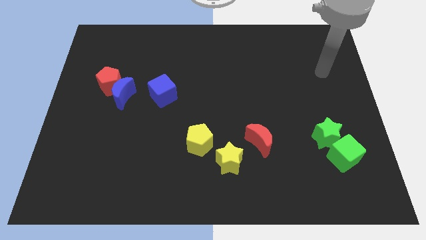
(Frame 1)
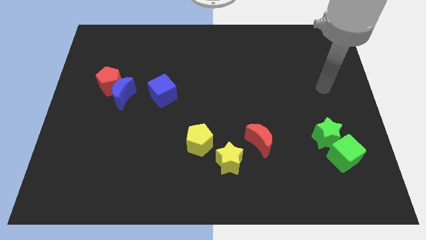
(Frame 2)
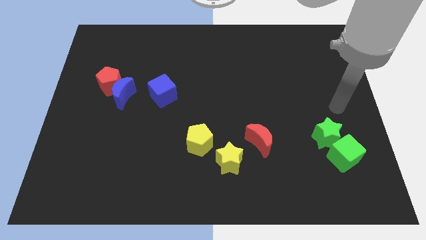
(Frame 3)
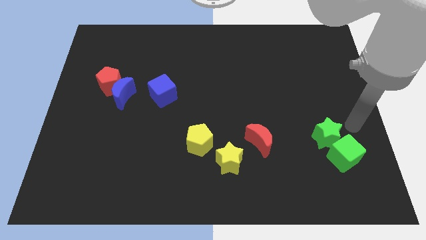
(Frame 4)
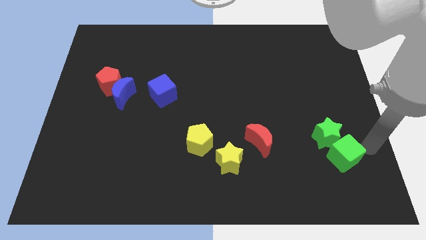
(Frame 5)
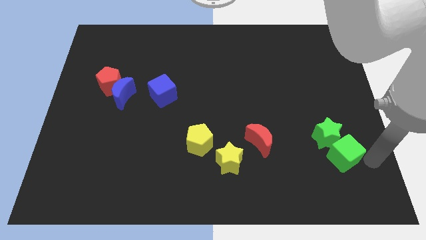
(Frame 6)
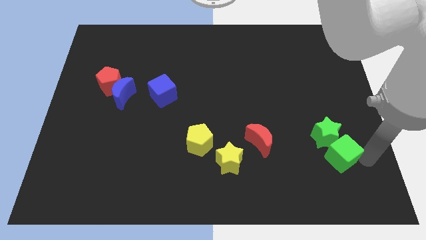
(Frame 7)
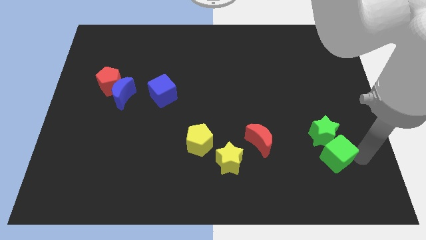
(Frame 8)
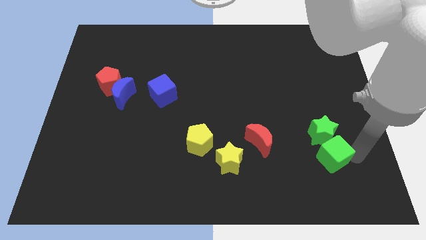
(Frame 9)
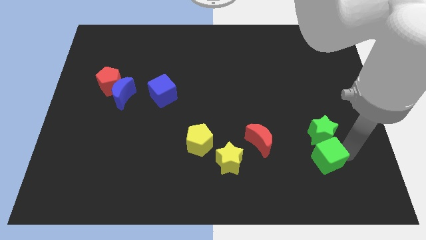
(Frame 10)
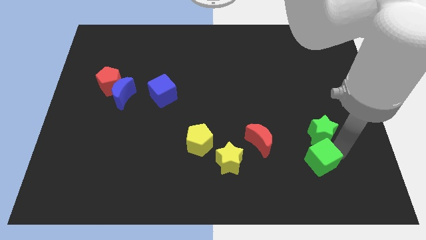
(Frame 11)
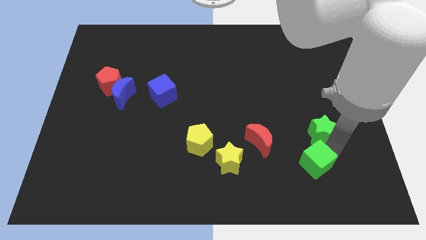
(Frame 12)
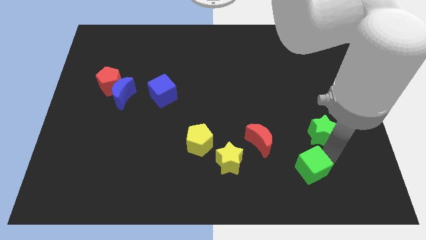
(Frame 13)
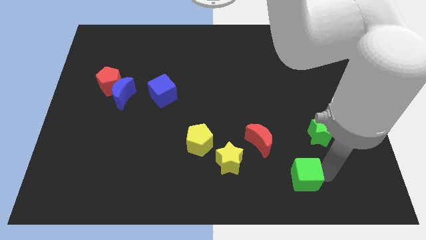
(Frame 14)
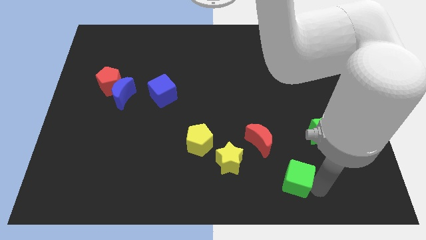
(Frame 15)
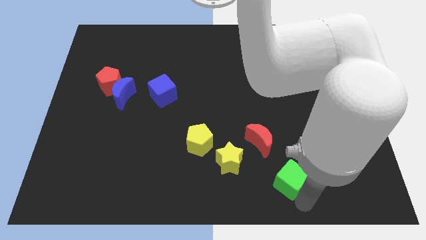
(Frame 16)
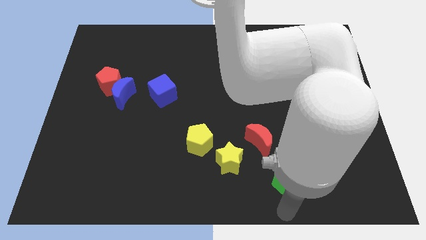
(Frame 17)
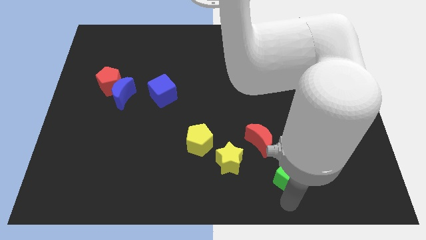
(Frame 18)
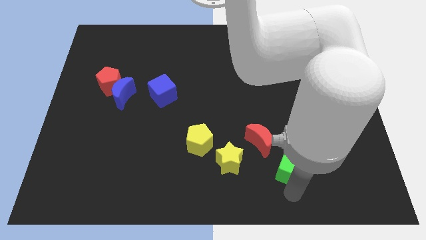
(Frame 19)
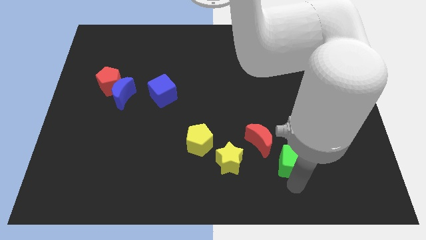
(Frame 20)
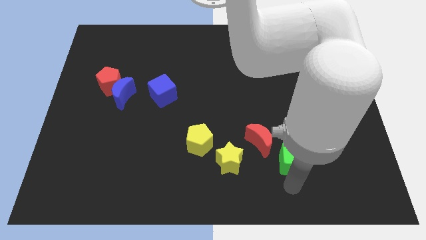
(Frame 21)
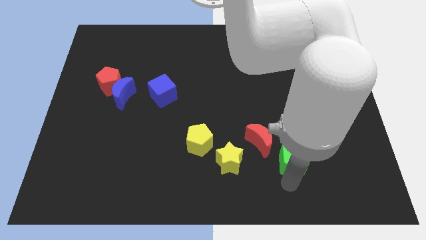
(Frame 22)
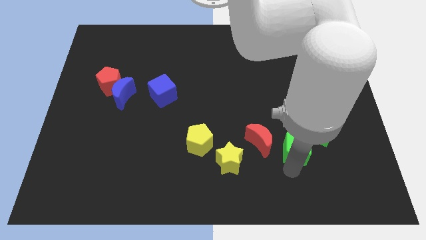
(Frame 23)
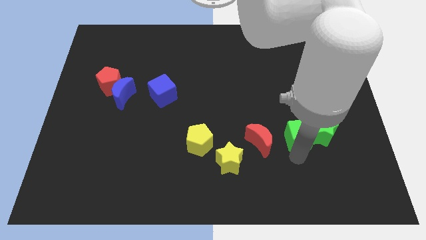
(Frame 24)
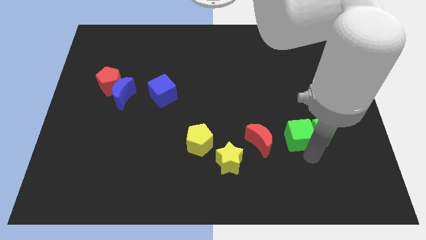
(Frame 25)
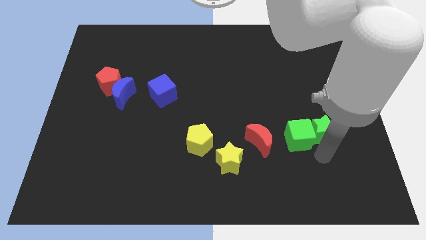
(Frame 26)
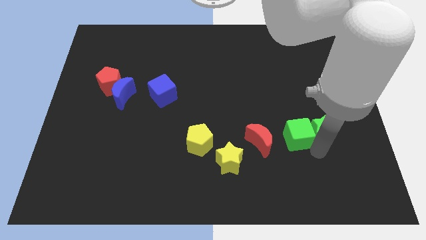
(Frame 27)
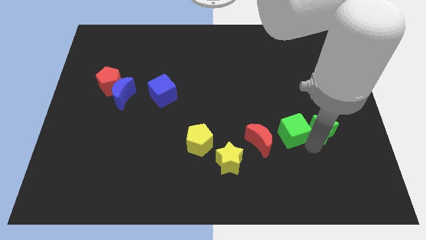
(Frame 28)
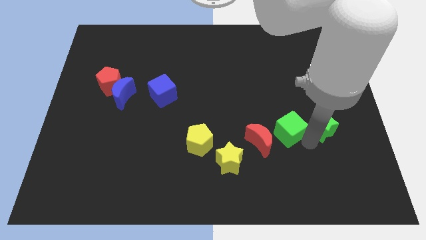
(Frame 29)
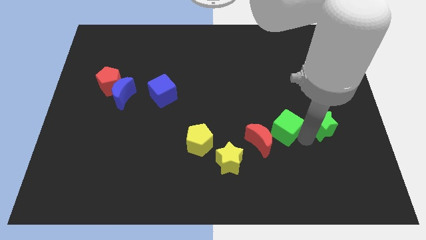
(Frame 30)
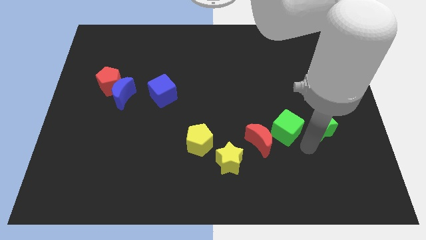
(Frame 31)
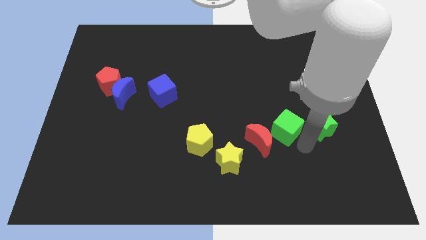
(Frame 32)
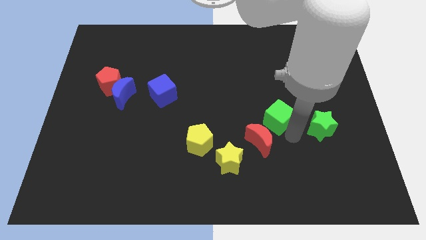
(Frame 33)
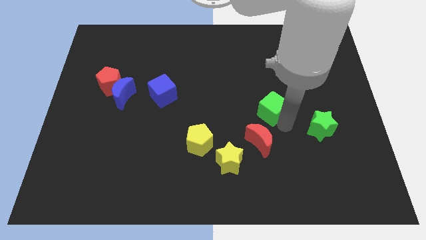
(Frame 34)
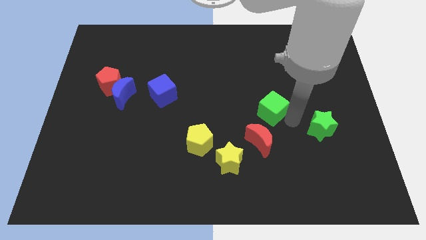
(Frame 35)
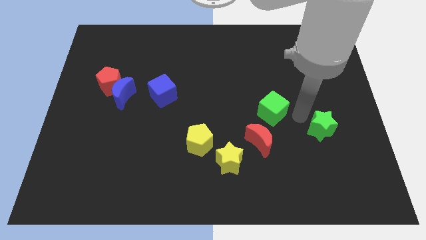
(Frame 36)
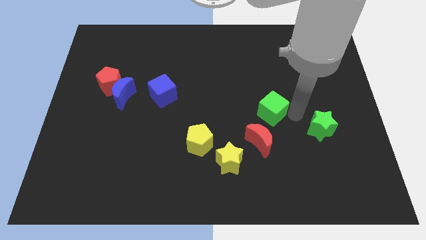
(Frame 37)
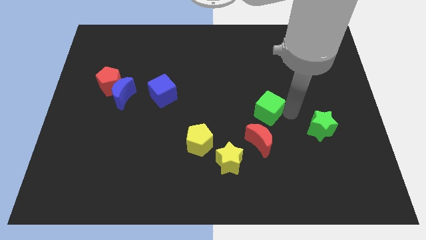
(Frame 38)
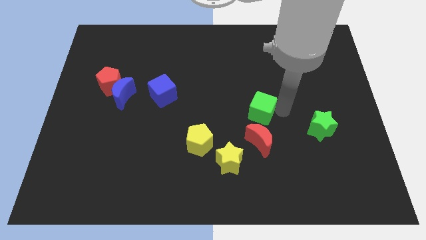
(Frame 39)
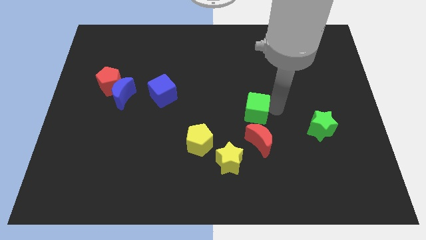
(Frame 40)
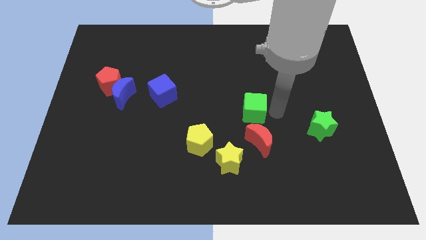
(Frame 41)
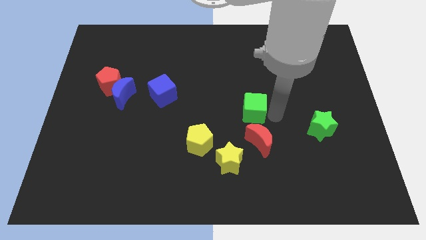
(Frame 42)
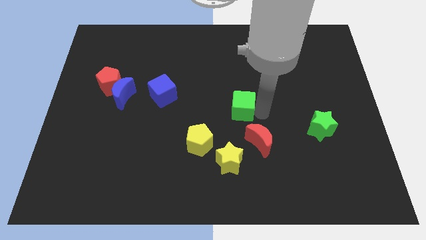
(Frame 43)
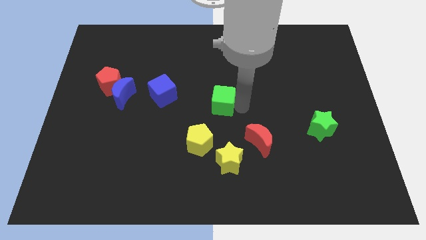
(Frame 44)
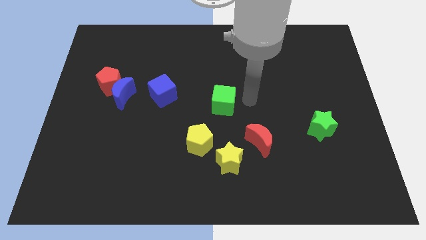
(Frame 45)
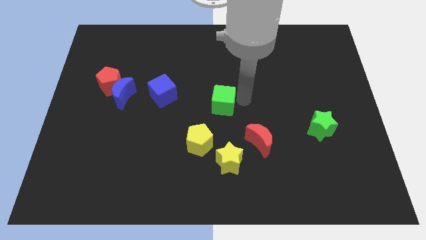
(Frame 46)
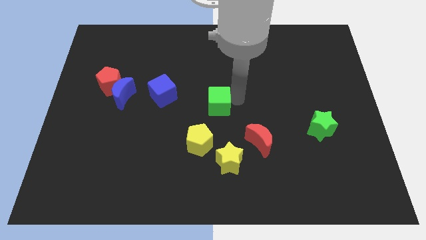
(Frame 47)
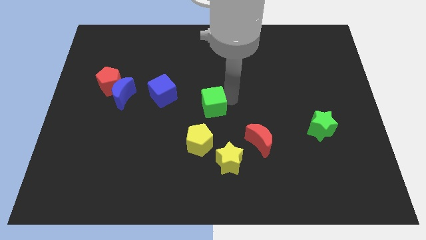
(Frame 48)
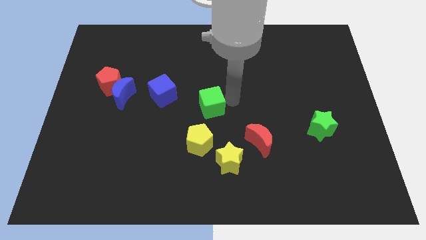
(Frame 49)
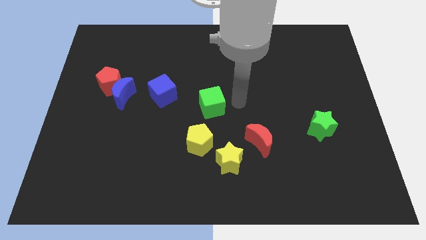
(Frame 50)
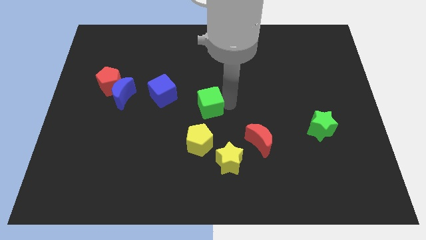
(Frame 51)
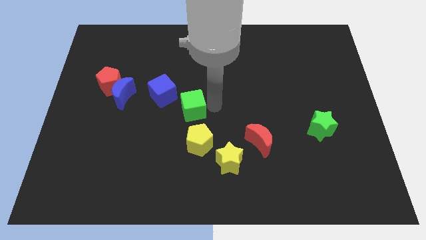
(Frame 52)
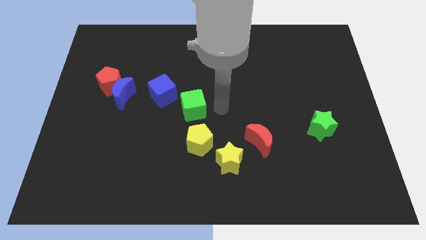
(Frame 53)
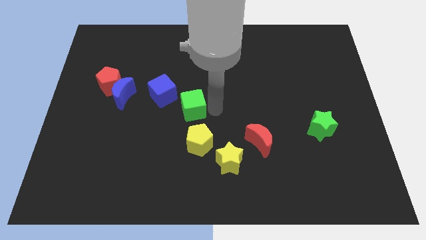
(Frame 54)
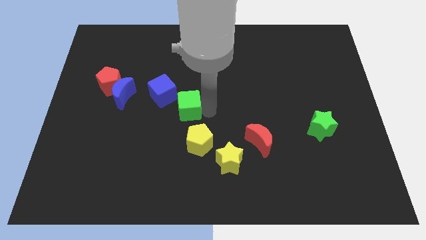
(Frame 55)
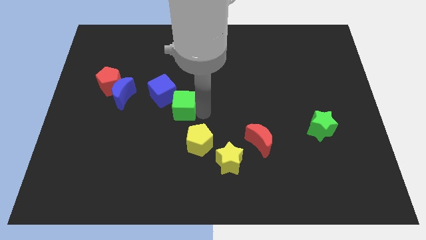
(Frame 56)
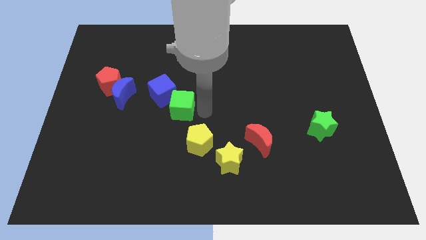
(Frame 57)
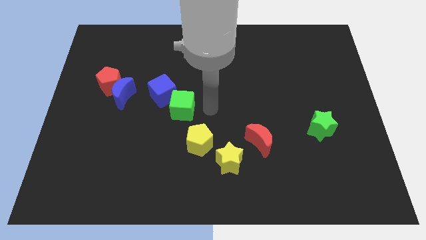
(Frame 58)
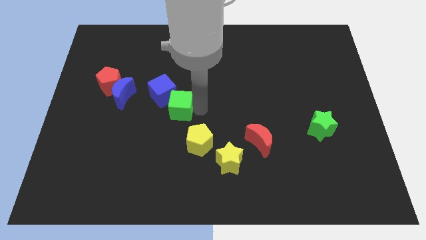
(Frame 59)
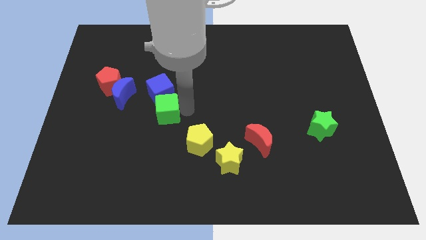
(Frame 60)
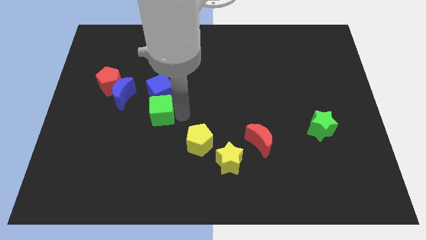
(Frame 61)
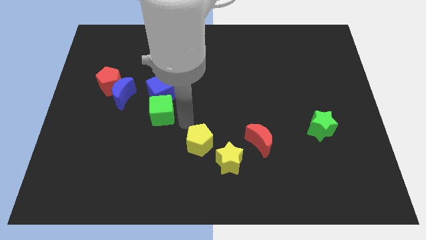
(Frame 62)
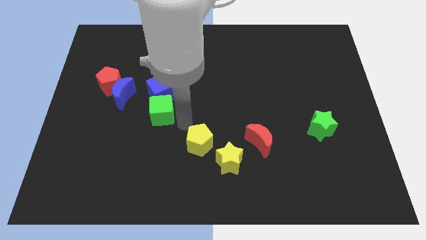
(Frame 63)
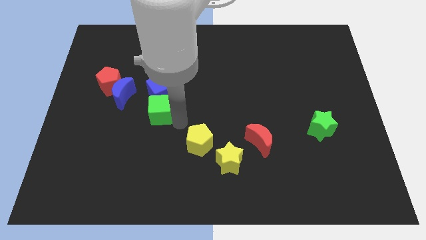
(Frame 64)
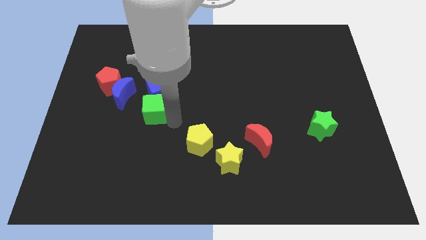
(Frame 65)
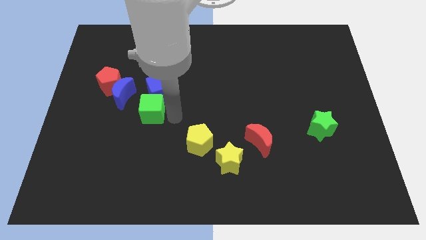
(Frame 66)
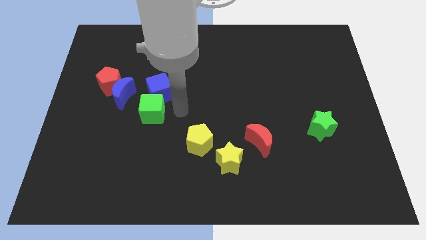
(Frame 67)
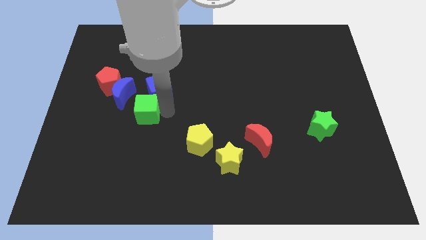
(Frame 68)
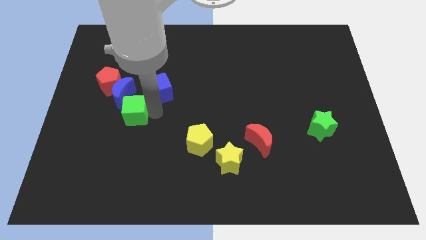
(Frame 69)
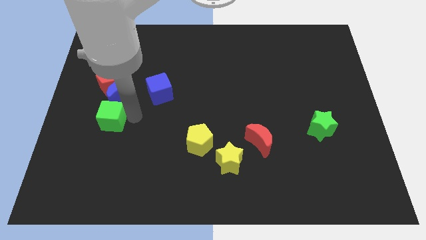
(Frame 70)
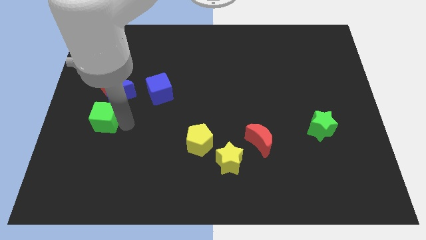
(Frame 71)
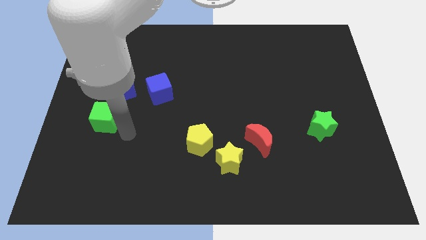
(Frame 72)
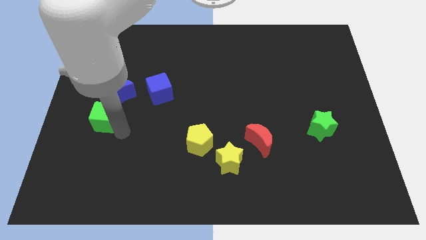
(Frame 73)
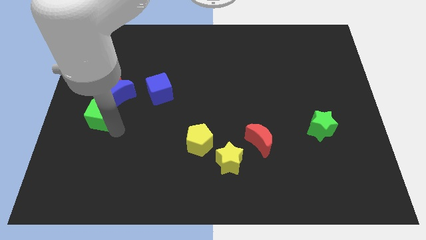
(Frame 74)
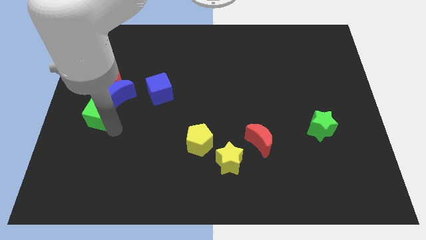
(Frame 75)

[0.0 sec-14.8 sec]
put the green cube to the left side

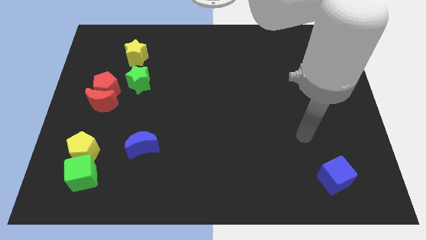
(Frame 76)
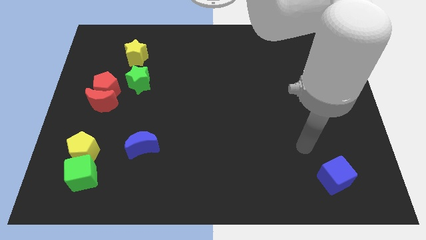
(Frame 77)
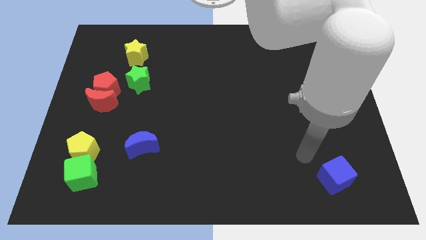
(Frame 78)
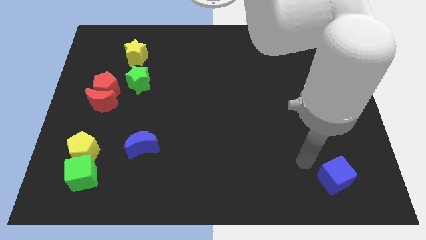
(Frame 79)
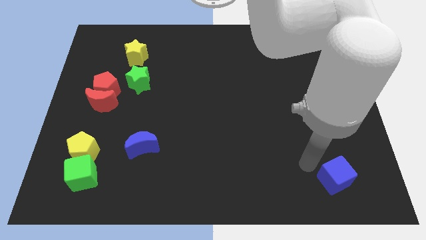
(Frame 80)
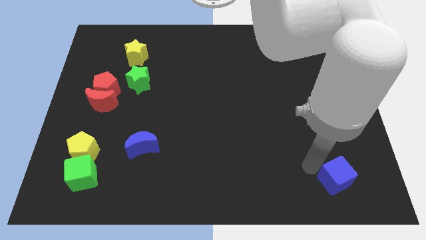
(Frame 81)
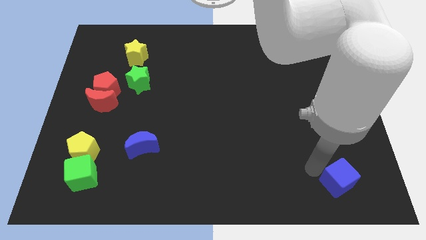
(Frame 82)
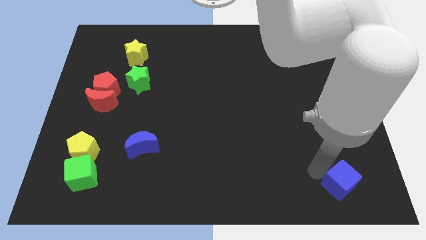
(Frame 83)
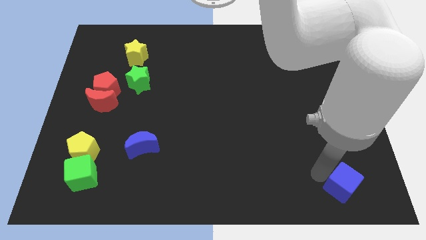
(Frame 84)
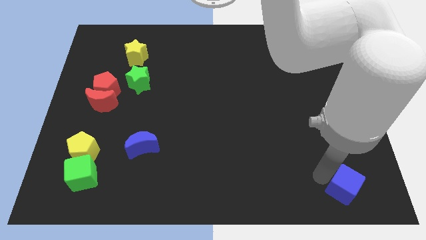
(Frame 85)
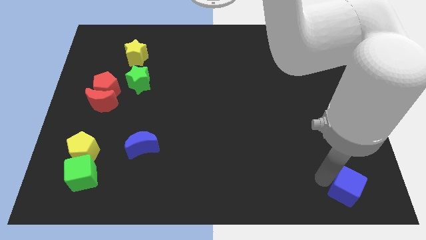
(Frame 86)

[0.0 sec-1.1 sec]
put the blue cube to the bottom right corner
